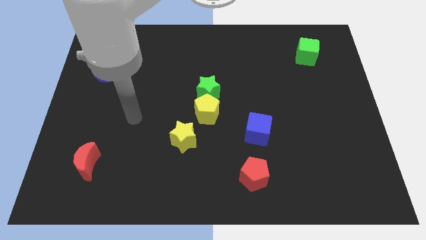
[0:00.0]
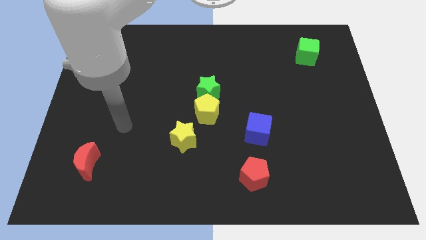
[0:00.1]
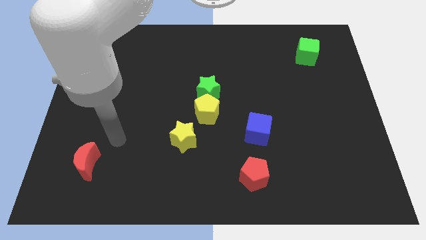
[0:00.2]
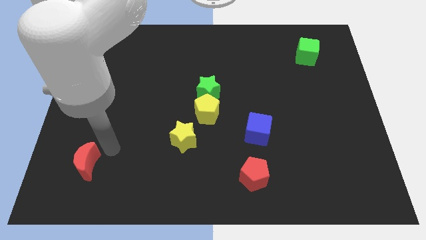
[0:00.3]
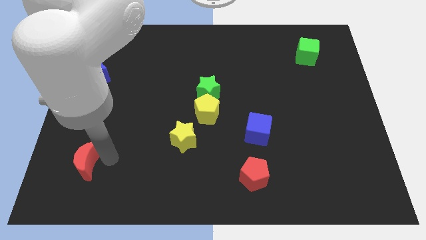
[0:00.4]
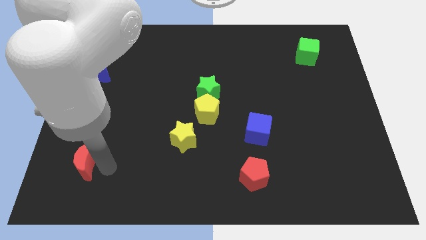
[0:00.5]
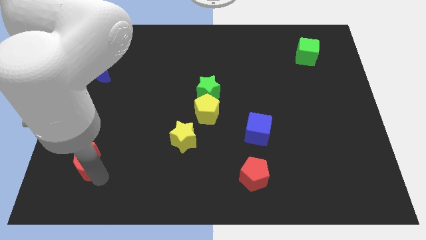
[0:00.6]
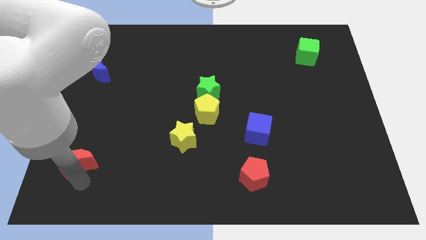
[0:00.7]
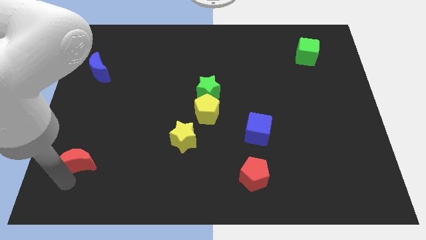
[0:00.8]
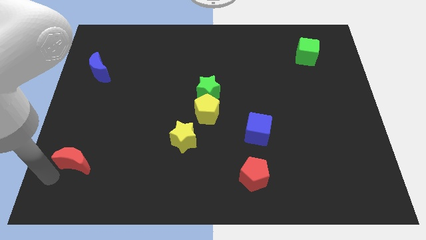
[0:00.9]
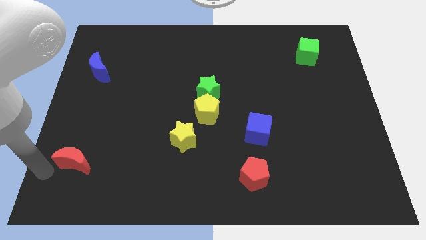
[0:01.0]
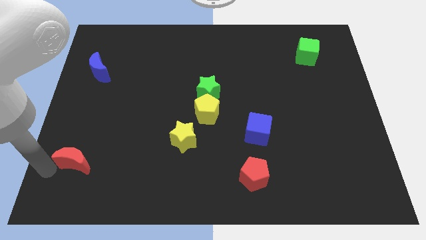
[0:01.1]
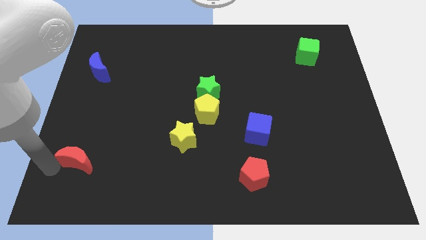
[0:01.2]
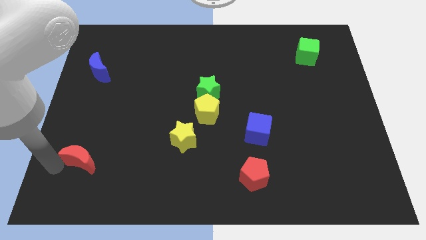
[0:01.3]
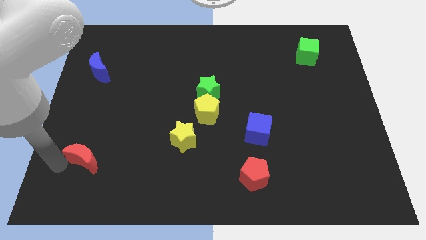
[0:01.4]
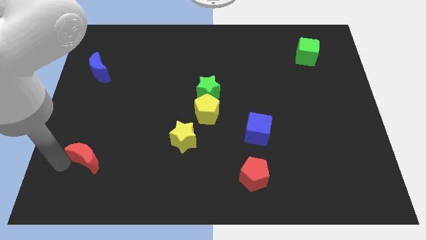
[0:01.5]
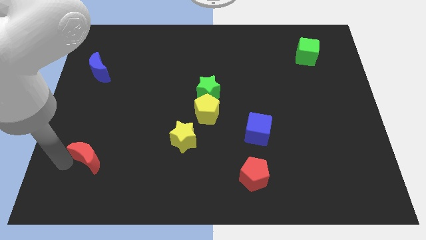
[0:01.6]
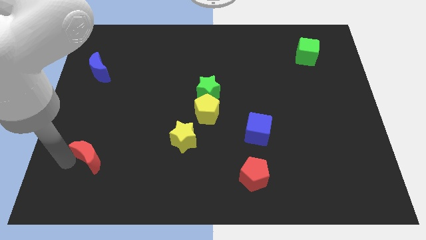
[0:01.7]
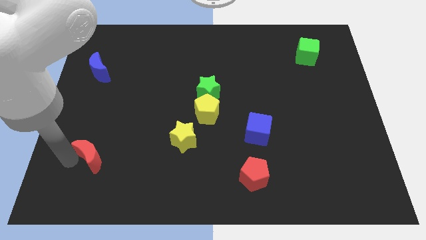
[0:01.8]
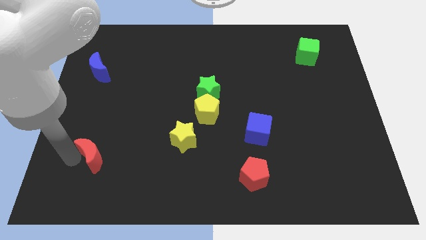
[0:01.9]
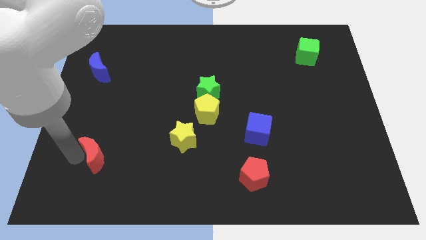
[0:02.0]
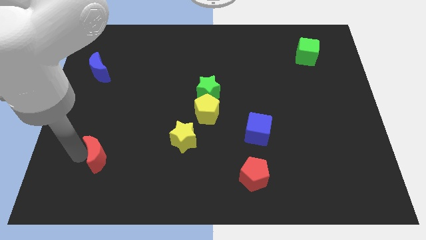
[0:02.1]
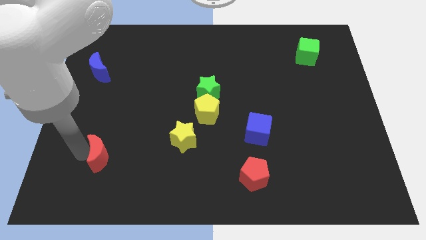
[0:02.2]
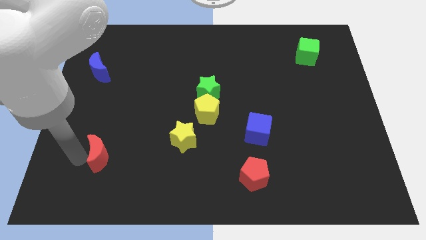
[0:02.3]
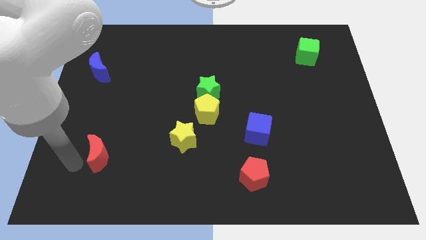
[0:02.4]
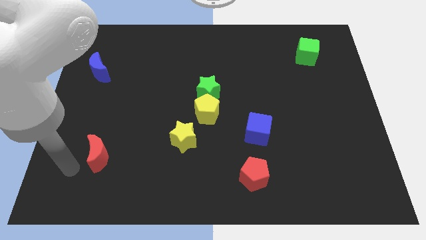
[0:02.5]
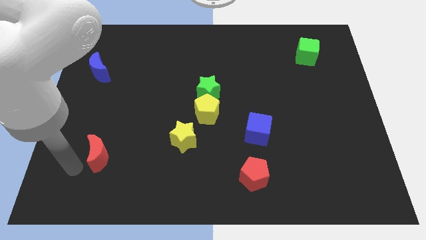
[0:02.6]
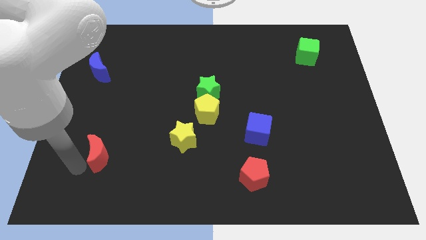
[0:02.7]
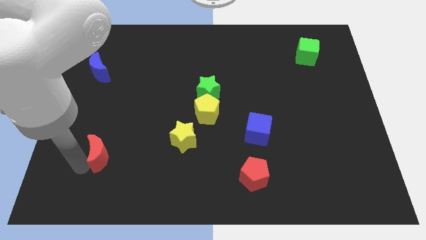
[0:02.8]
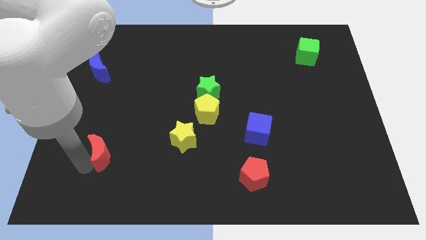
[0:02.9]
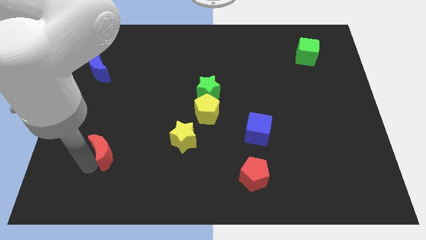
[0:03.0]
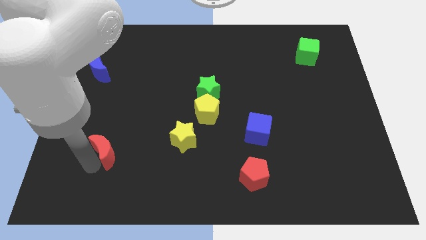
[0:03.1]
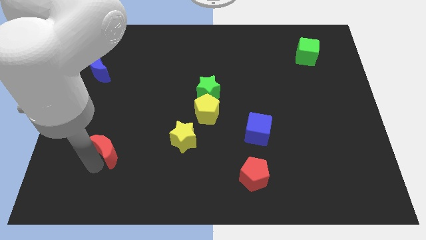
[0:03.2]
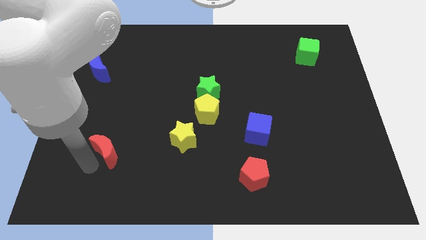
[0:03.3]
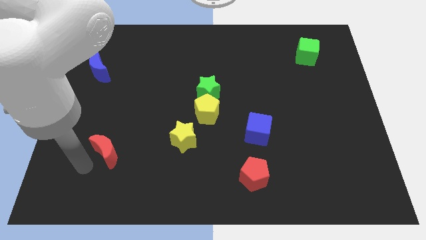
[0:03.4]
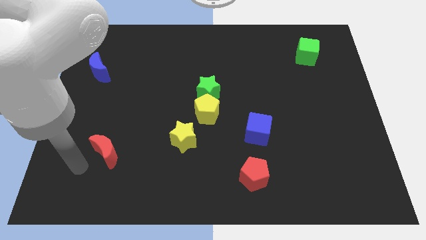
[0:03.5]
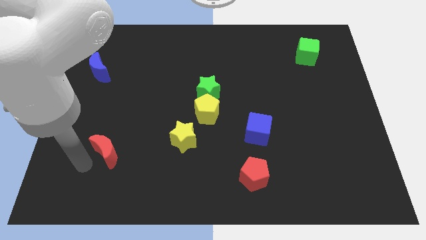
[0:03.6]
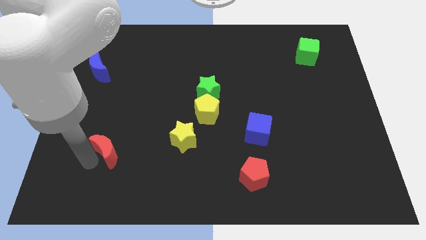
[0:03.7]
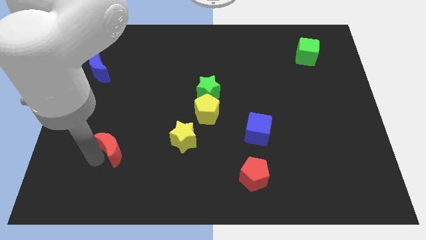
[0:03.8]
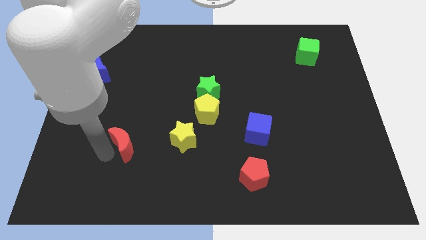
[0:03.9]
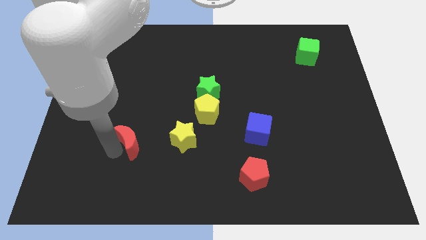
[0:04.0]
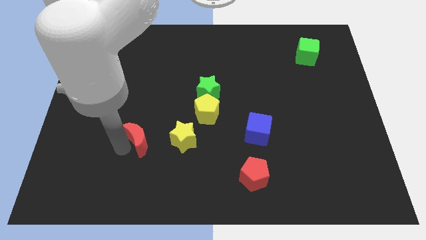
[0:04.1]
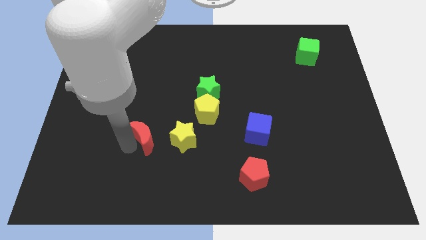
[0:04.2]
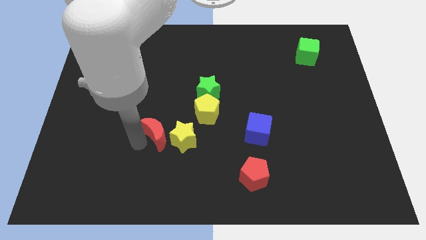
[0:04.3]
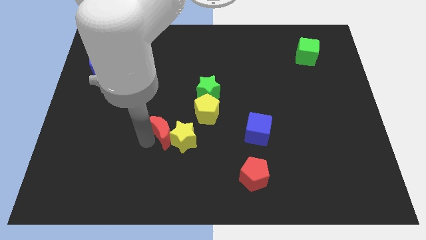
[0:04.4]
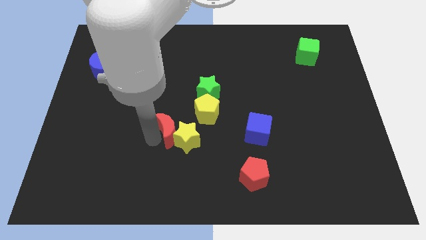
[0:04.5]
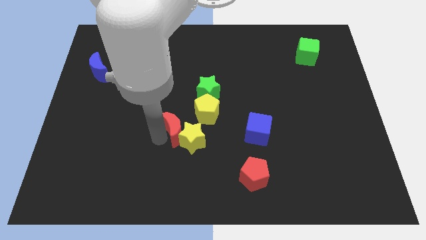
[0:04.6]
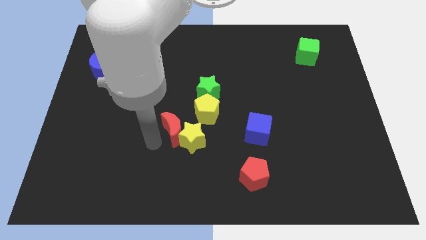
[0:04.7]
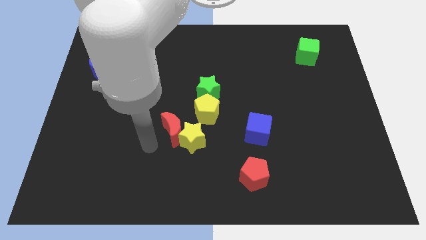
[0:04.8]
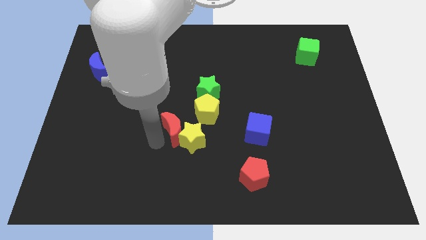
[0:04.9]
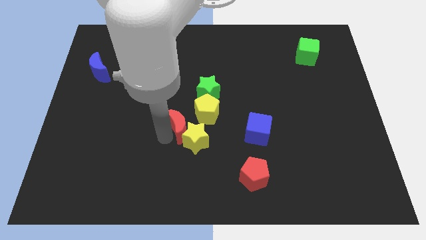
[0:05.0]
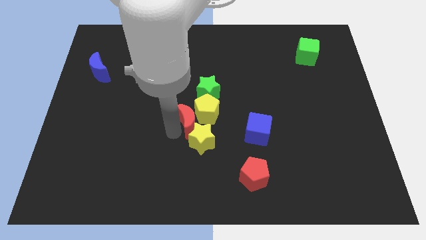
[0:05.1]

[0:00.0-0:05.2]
move the red moon to the yellow pentagon

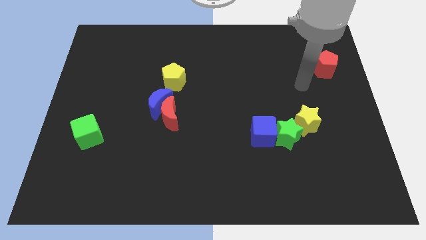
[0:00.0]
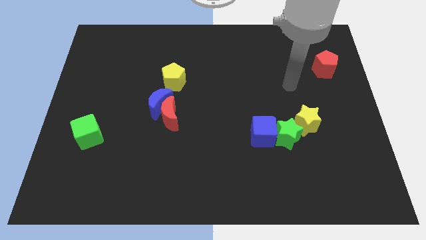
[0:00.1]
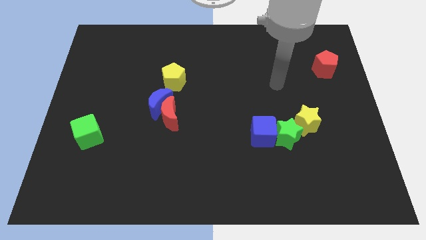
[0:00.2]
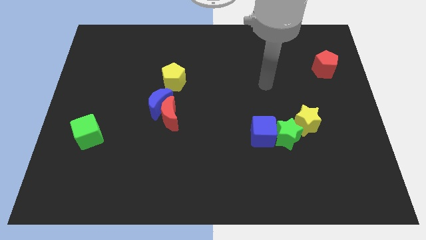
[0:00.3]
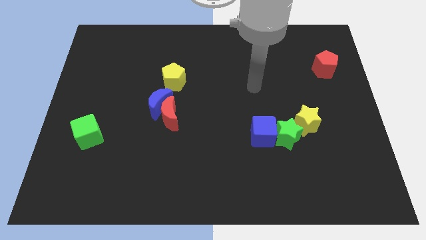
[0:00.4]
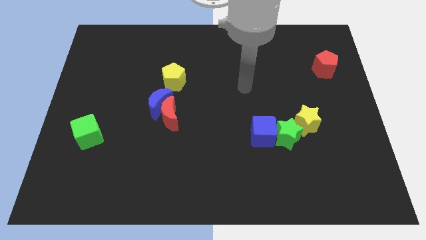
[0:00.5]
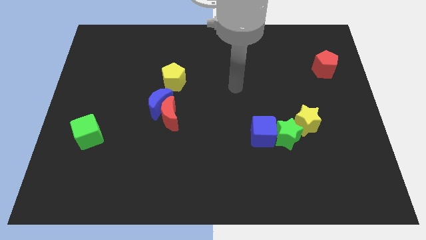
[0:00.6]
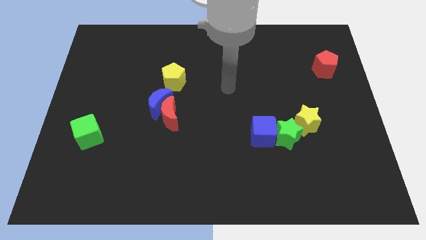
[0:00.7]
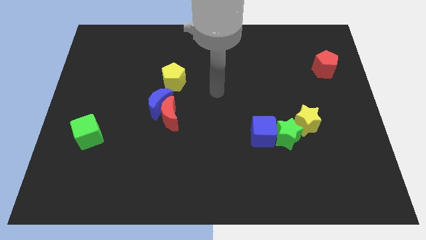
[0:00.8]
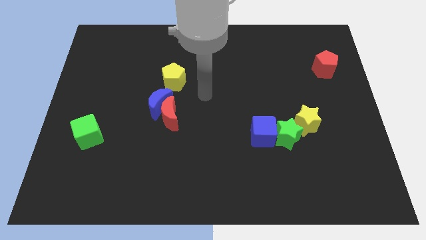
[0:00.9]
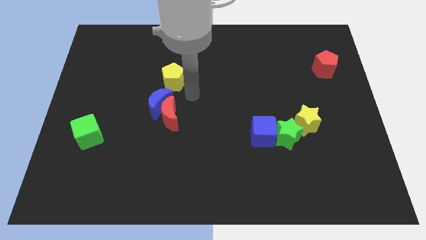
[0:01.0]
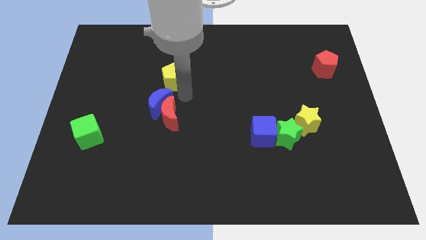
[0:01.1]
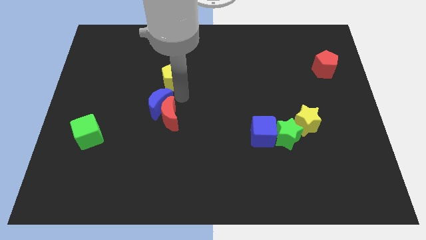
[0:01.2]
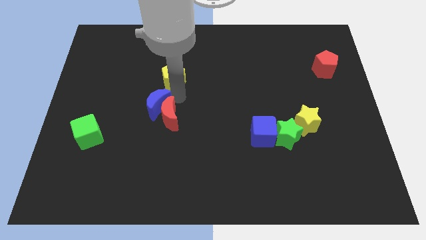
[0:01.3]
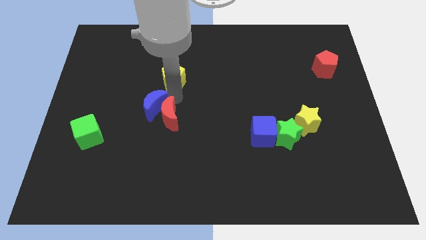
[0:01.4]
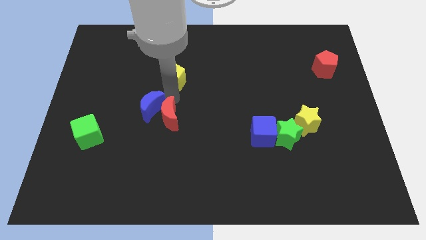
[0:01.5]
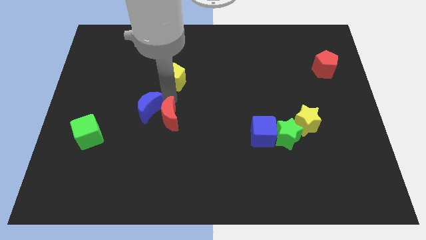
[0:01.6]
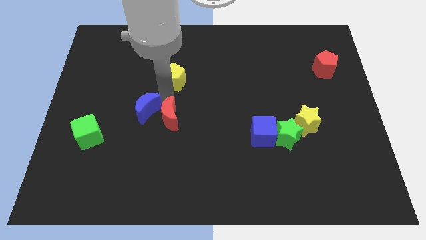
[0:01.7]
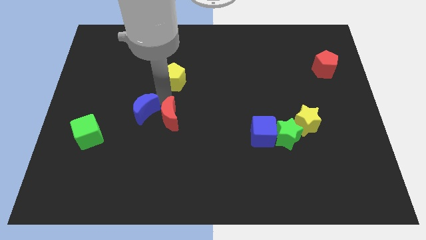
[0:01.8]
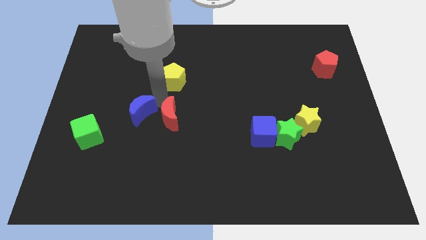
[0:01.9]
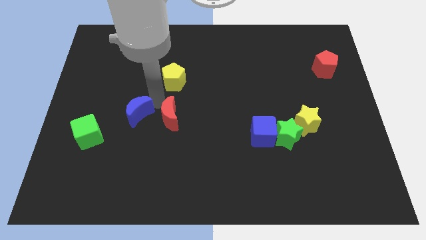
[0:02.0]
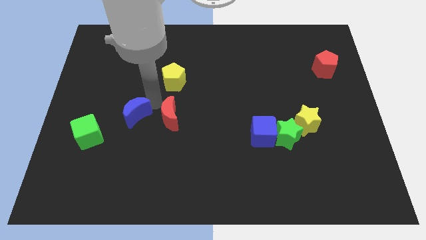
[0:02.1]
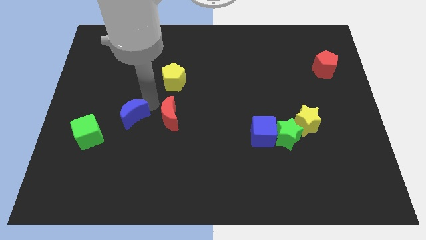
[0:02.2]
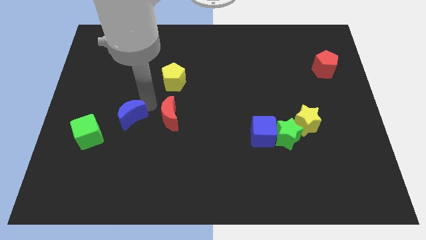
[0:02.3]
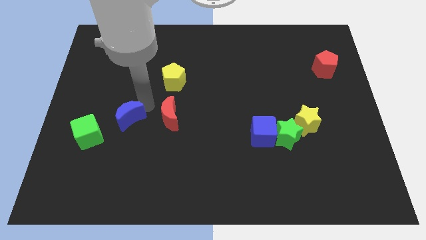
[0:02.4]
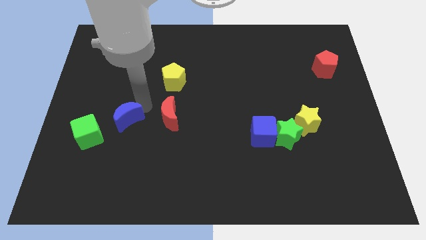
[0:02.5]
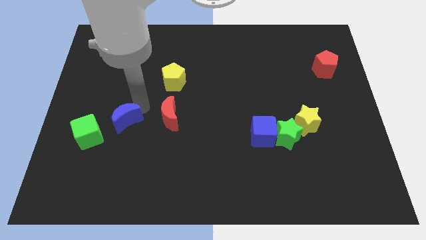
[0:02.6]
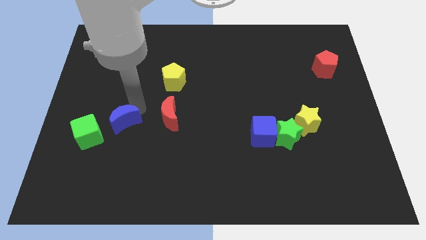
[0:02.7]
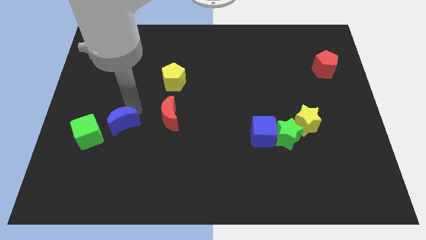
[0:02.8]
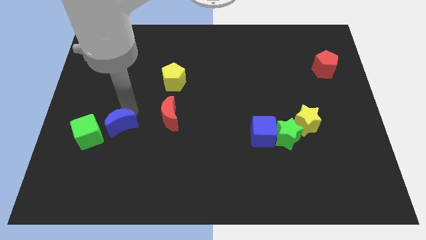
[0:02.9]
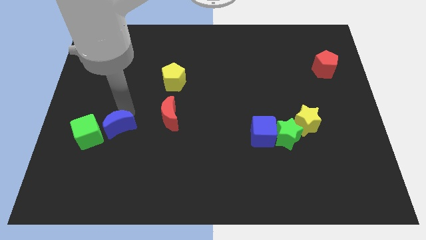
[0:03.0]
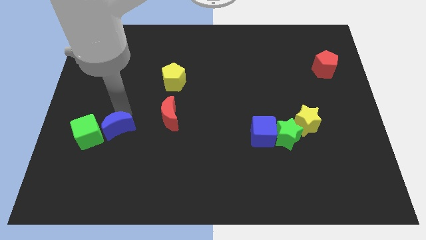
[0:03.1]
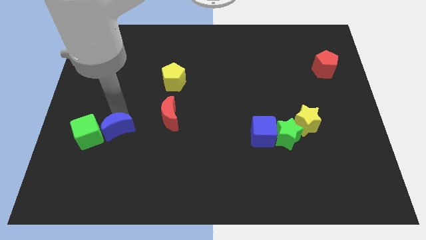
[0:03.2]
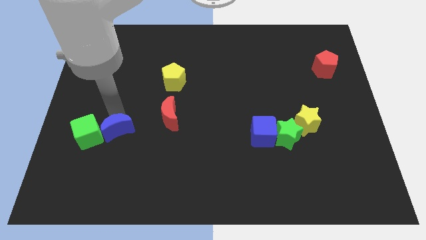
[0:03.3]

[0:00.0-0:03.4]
push the blue moon next to the green cube
